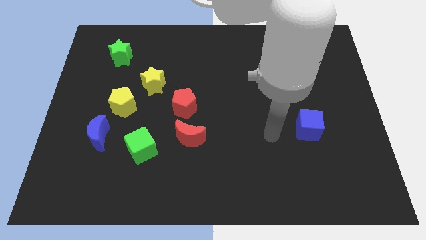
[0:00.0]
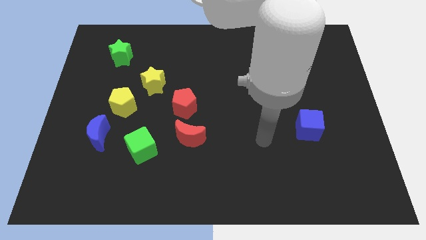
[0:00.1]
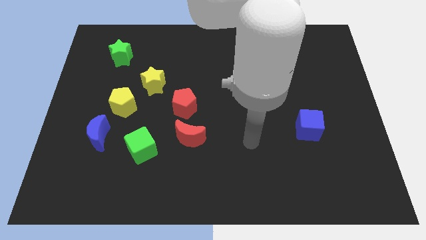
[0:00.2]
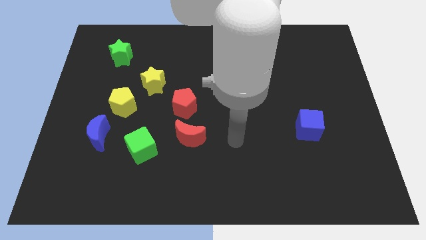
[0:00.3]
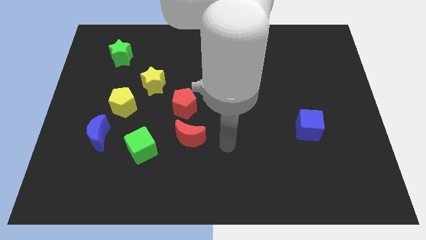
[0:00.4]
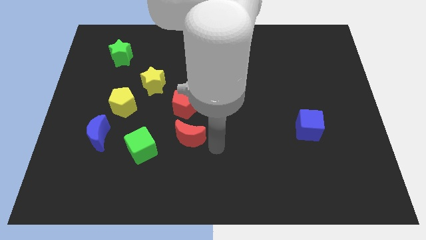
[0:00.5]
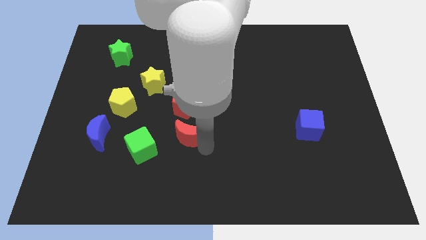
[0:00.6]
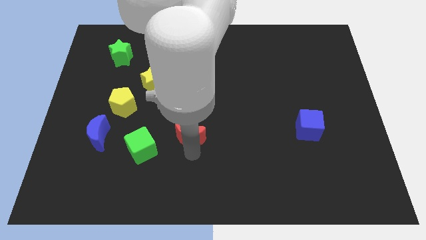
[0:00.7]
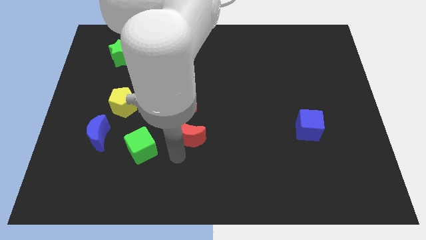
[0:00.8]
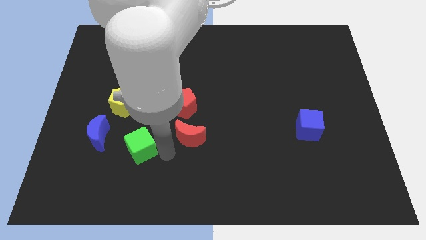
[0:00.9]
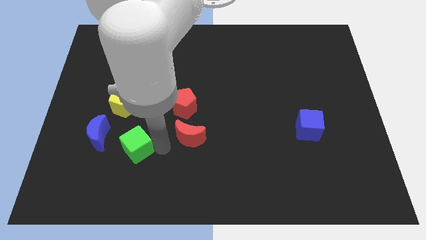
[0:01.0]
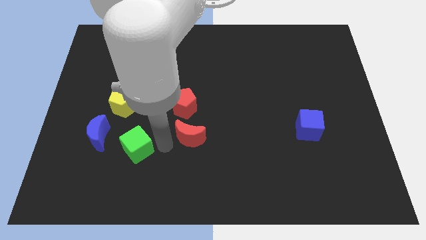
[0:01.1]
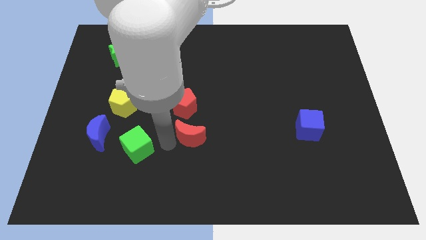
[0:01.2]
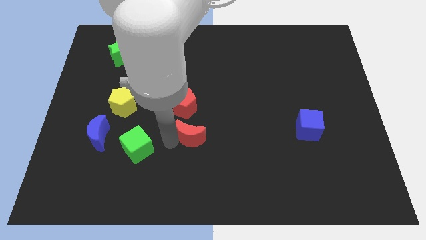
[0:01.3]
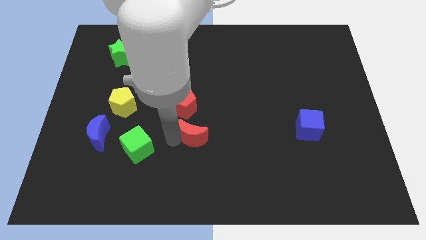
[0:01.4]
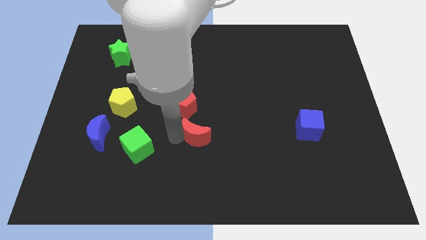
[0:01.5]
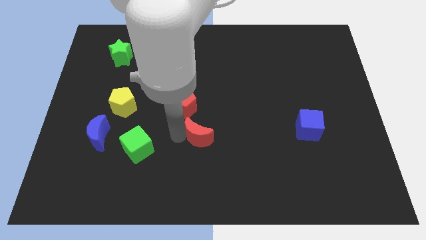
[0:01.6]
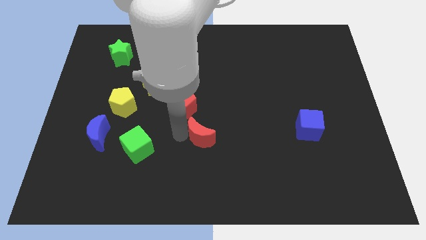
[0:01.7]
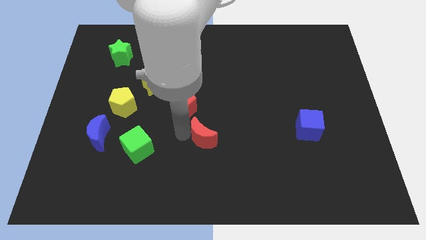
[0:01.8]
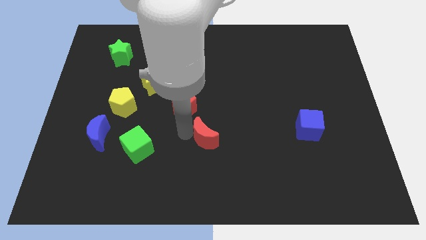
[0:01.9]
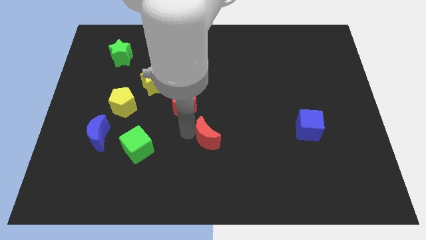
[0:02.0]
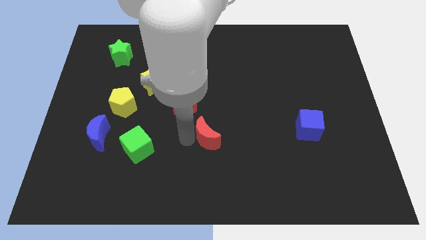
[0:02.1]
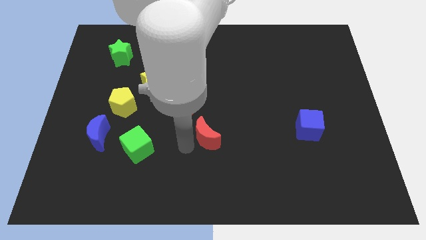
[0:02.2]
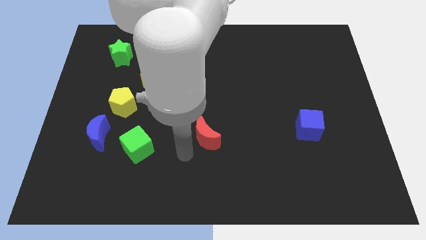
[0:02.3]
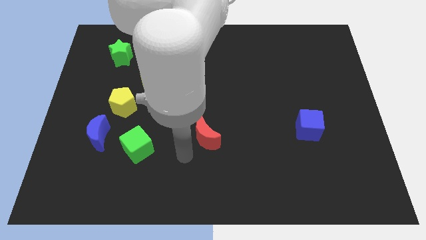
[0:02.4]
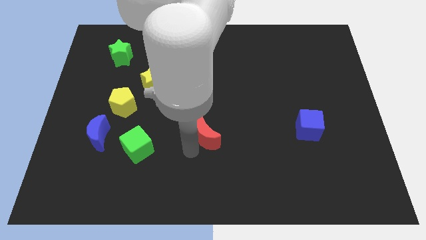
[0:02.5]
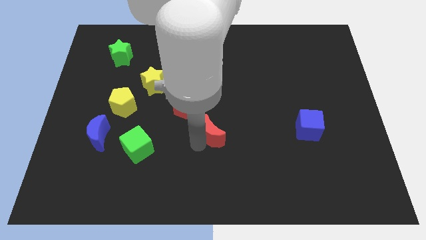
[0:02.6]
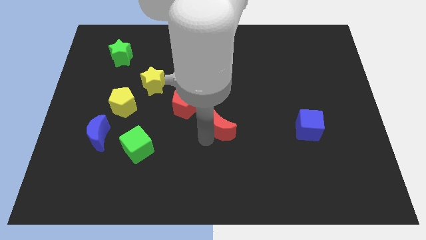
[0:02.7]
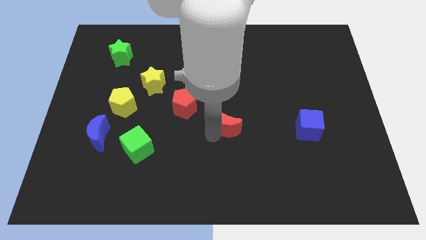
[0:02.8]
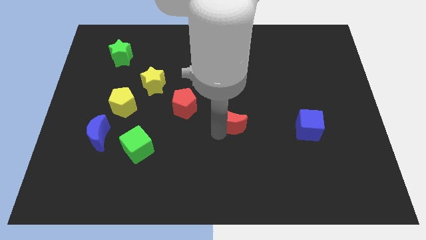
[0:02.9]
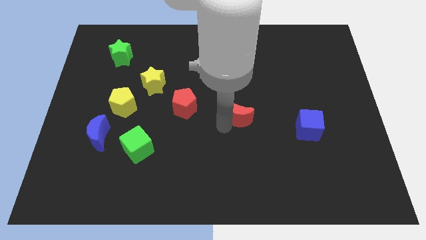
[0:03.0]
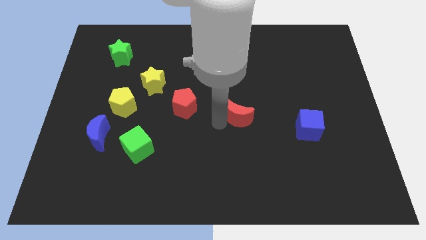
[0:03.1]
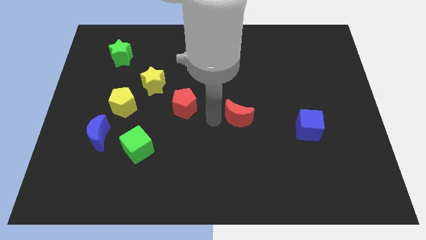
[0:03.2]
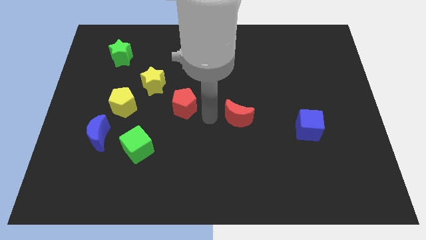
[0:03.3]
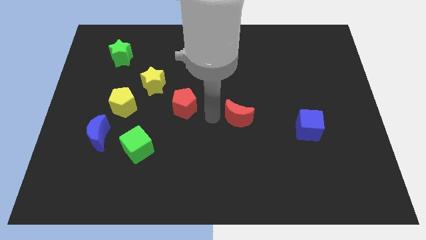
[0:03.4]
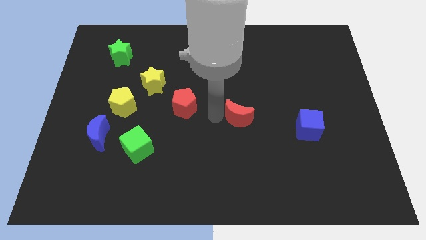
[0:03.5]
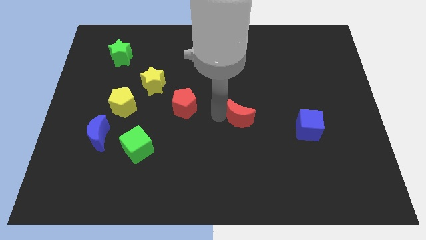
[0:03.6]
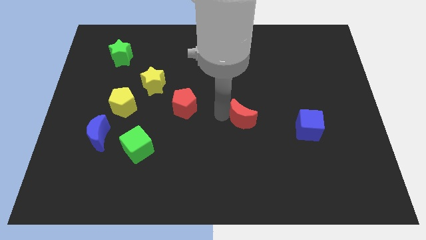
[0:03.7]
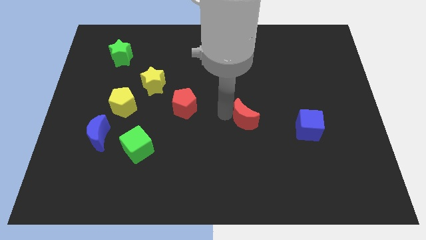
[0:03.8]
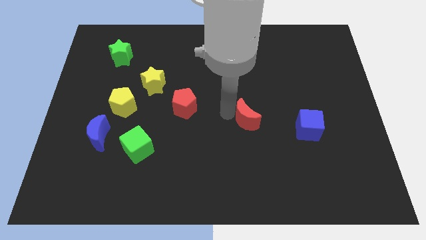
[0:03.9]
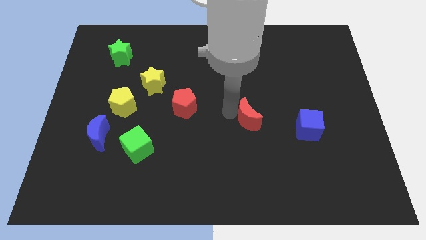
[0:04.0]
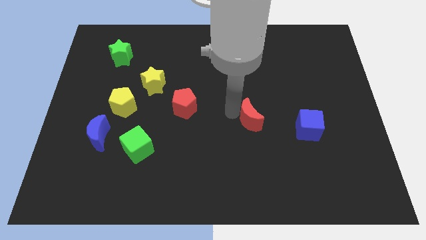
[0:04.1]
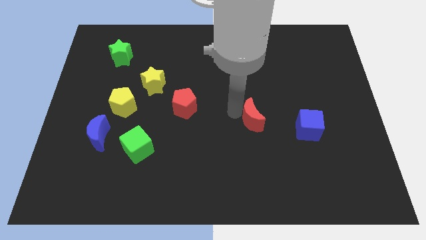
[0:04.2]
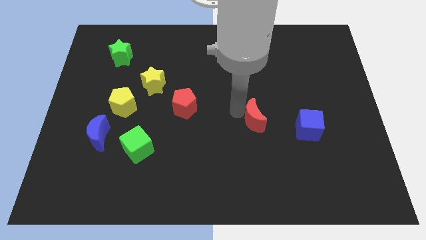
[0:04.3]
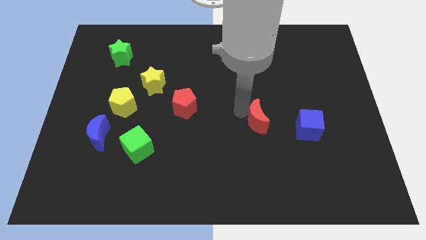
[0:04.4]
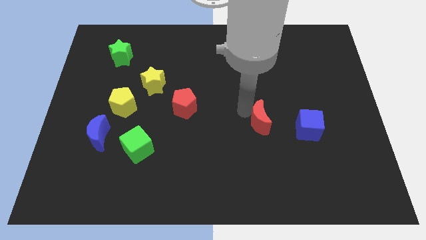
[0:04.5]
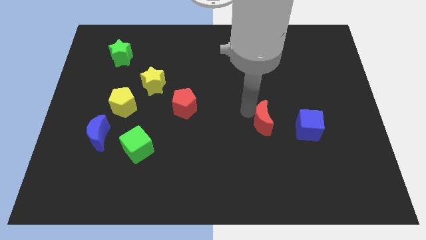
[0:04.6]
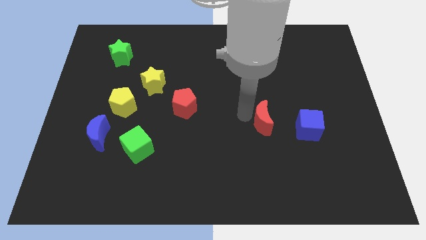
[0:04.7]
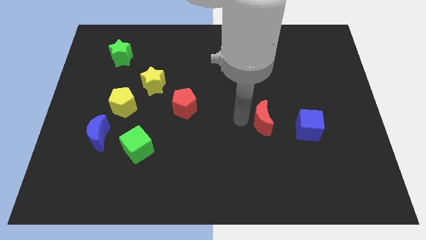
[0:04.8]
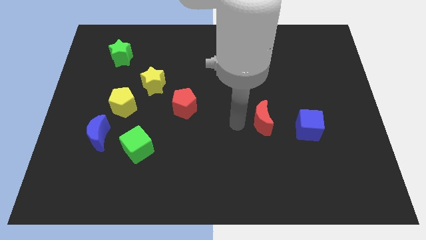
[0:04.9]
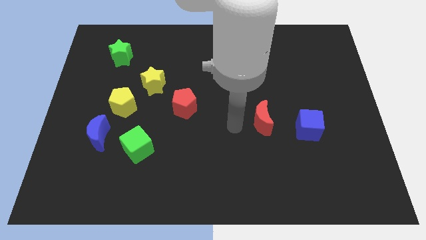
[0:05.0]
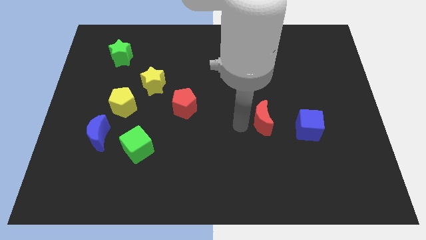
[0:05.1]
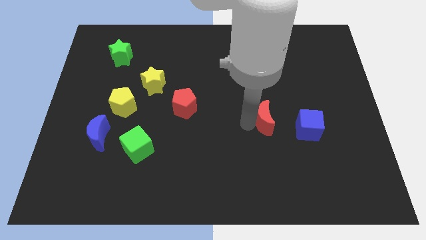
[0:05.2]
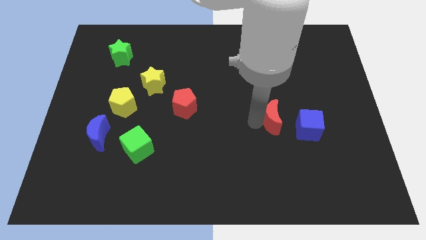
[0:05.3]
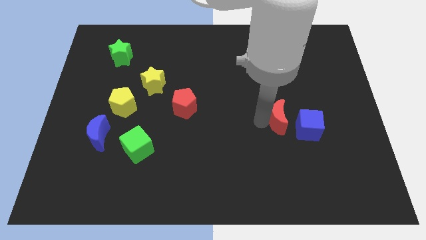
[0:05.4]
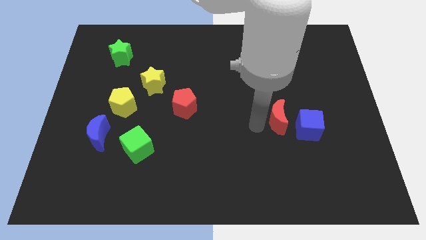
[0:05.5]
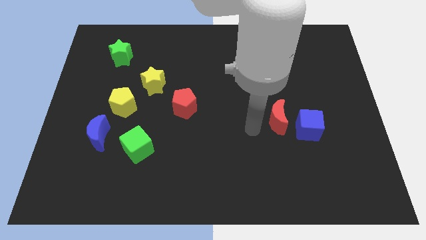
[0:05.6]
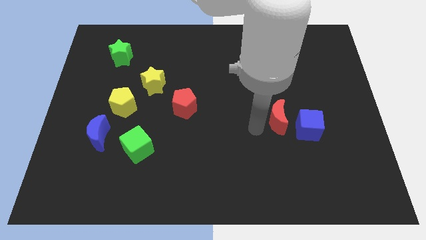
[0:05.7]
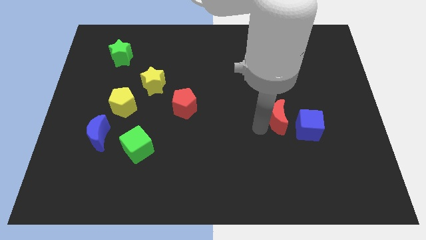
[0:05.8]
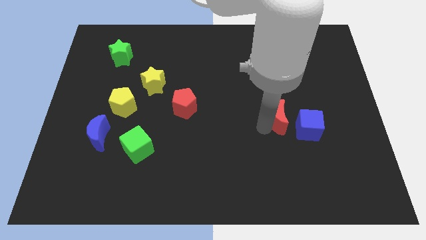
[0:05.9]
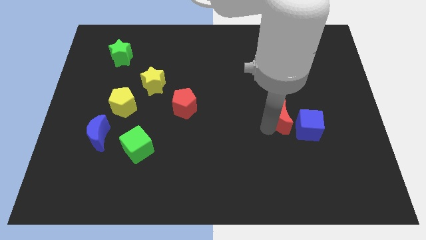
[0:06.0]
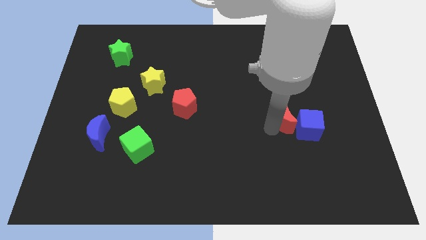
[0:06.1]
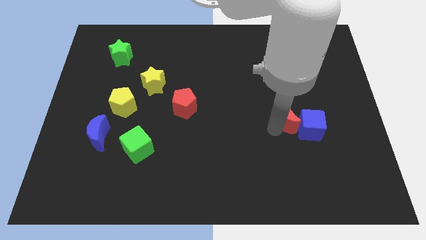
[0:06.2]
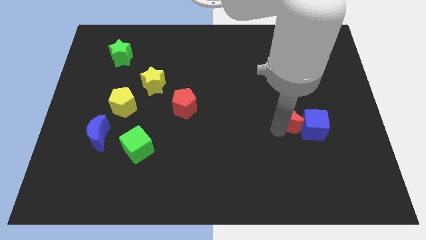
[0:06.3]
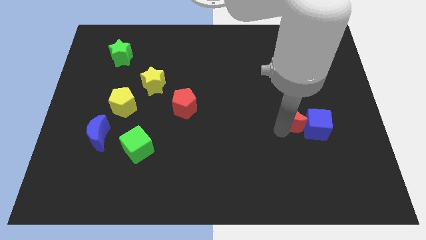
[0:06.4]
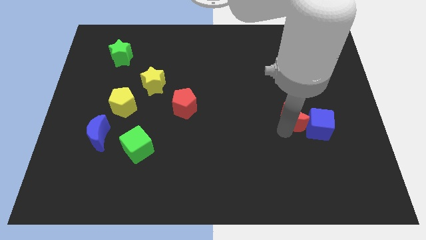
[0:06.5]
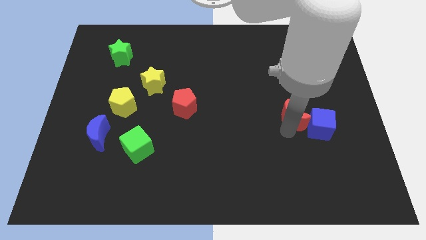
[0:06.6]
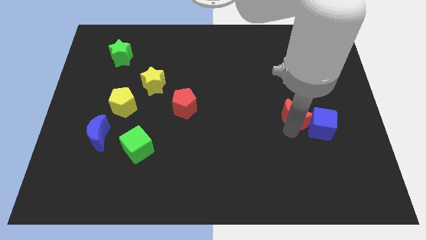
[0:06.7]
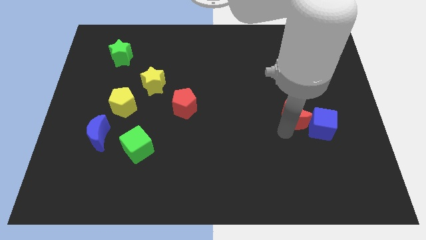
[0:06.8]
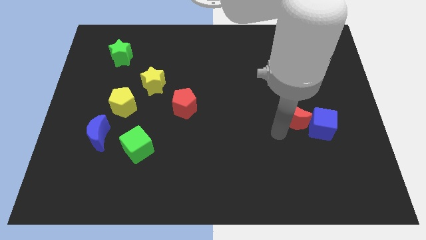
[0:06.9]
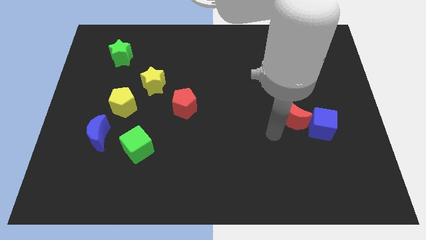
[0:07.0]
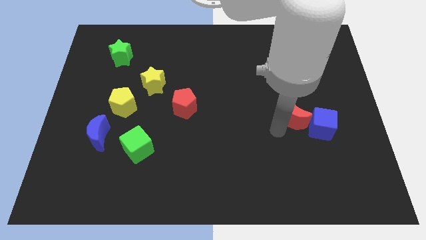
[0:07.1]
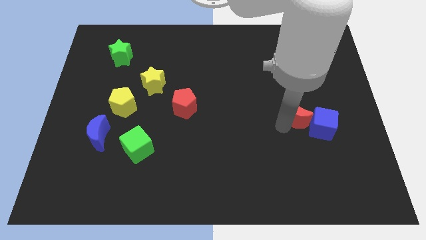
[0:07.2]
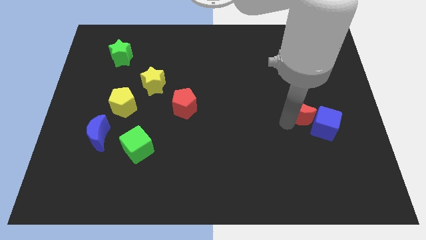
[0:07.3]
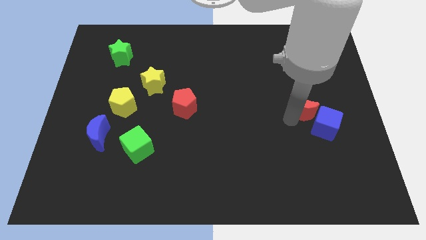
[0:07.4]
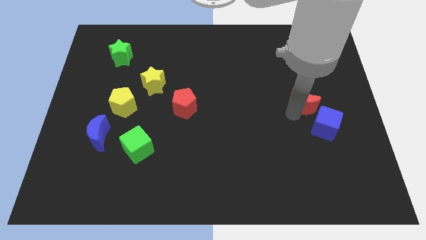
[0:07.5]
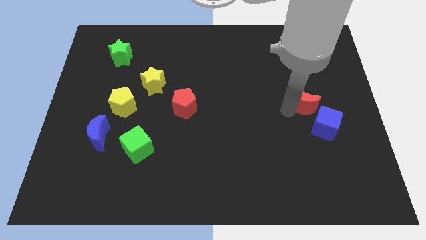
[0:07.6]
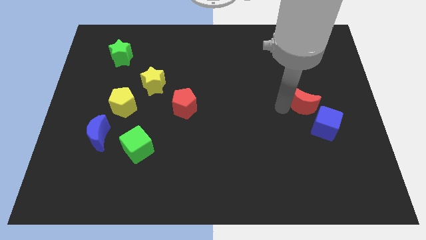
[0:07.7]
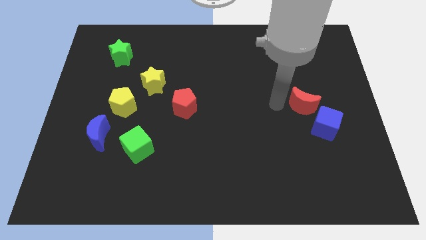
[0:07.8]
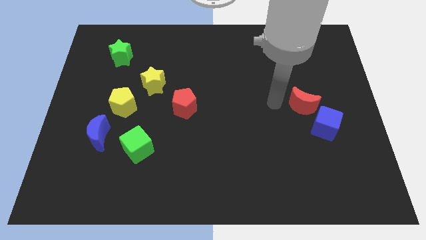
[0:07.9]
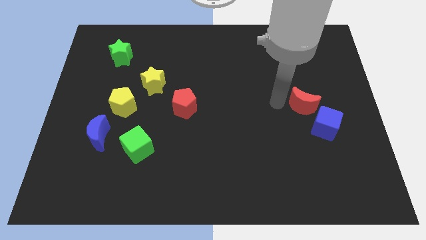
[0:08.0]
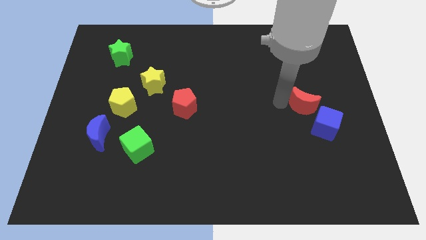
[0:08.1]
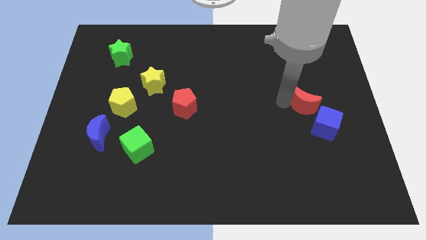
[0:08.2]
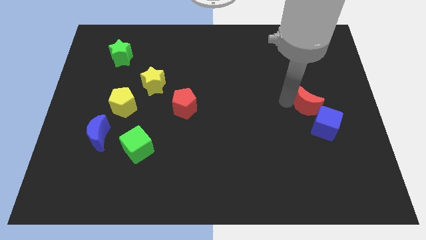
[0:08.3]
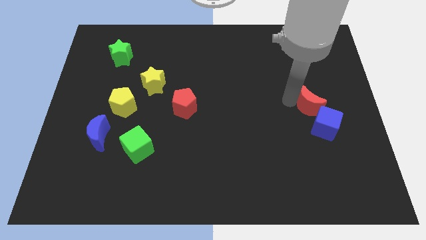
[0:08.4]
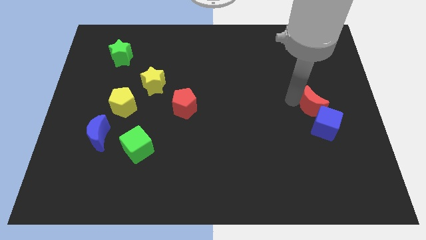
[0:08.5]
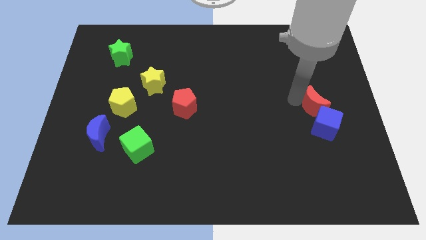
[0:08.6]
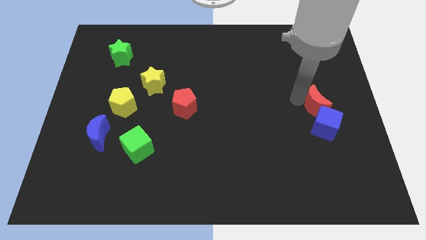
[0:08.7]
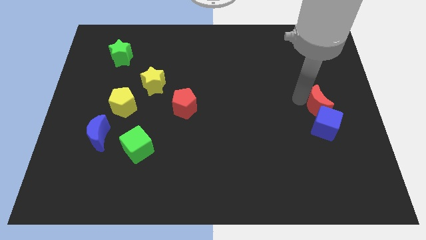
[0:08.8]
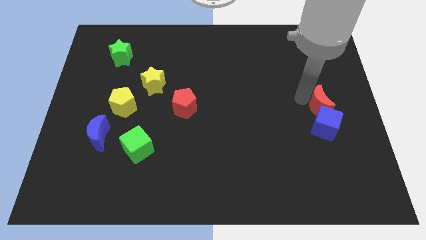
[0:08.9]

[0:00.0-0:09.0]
put the red moon to the right side
